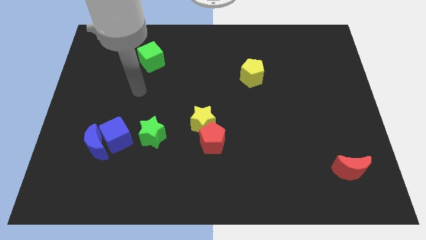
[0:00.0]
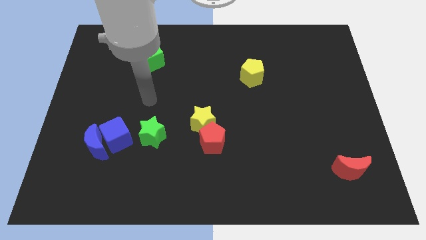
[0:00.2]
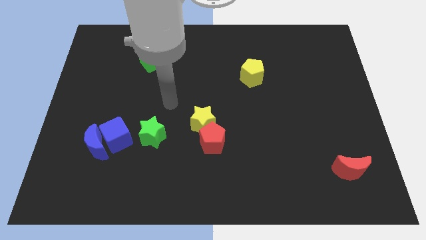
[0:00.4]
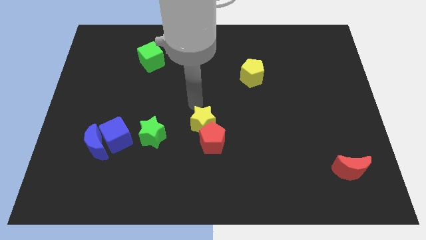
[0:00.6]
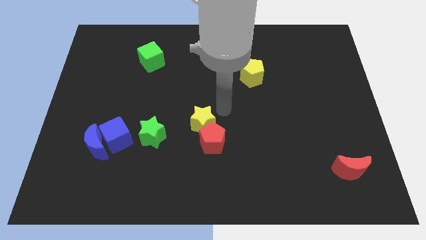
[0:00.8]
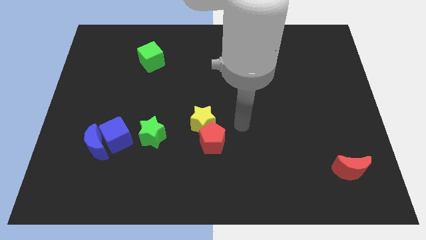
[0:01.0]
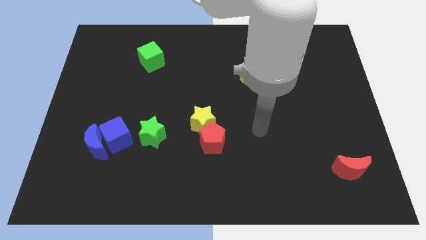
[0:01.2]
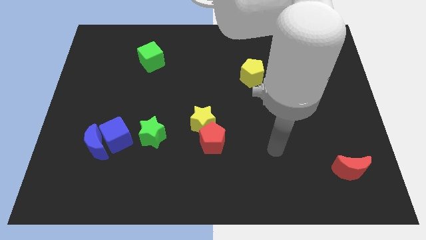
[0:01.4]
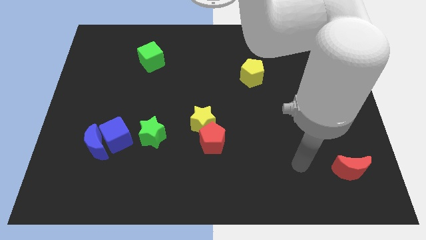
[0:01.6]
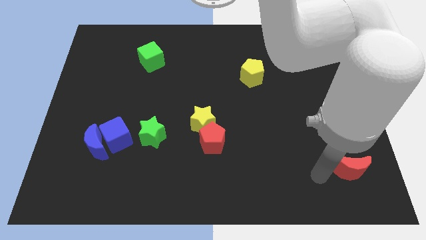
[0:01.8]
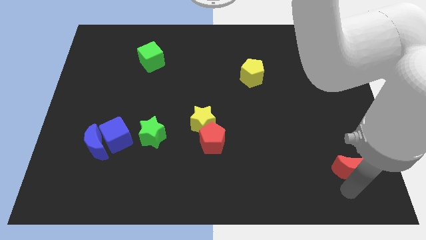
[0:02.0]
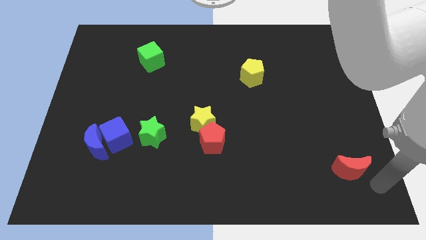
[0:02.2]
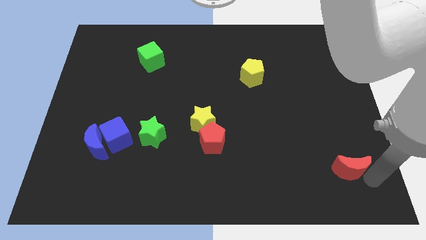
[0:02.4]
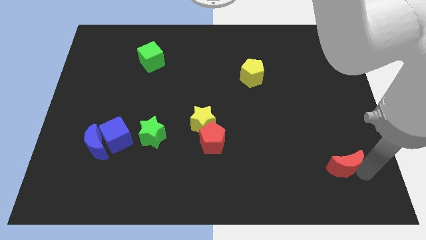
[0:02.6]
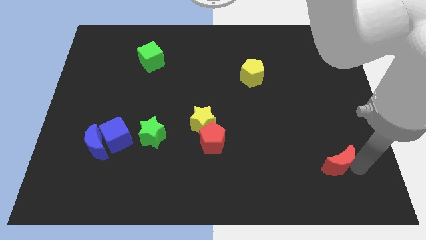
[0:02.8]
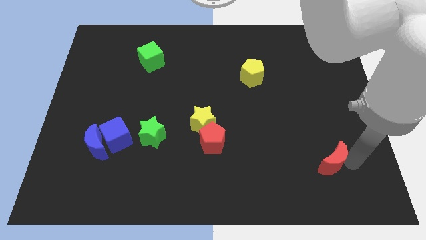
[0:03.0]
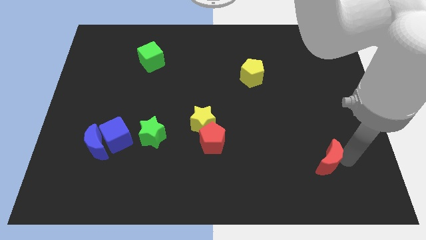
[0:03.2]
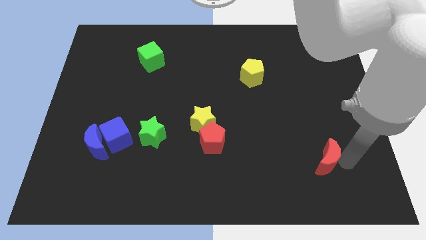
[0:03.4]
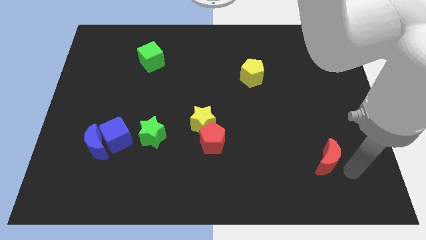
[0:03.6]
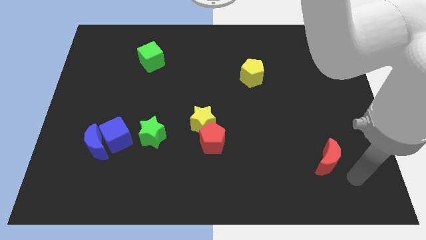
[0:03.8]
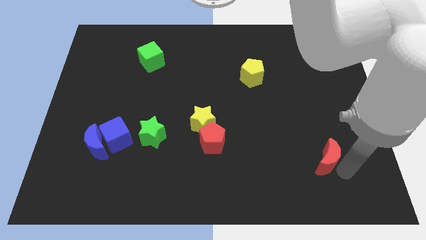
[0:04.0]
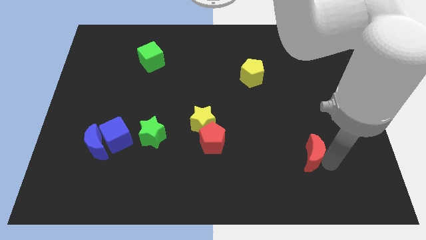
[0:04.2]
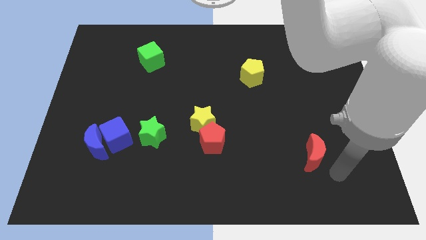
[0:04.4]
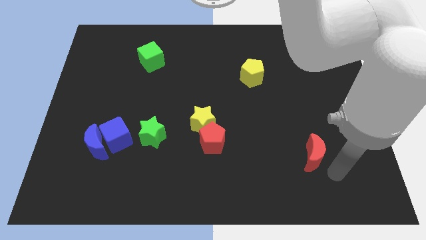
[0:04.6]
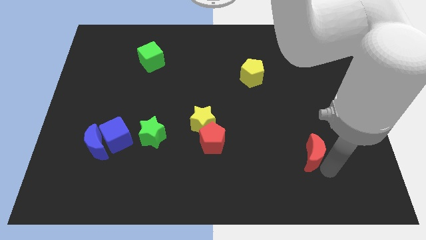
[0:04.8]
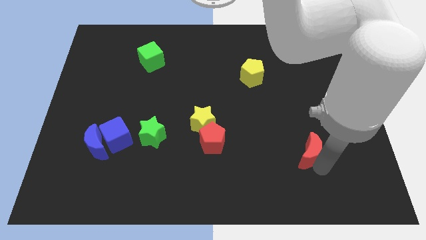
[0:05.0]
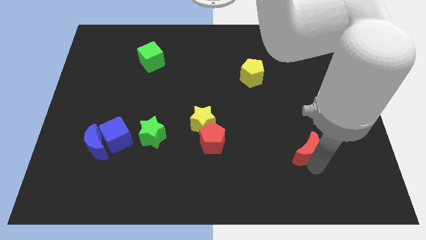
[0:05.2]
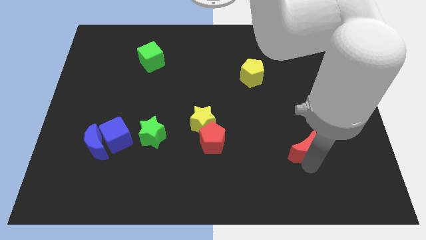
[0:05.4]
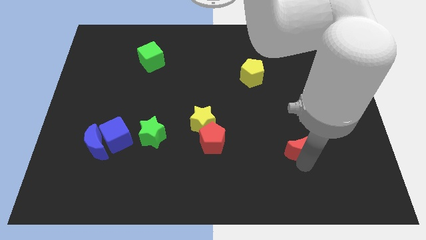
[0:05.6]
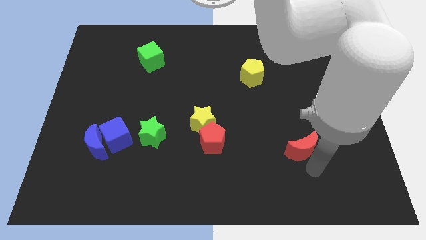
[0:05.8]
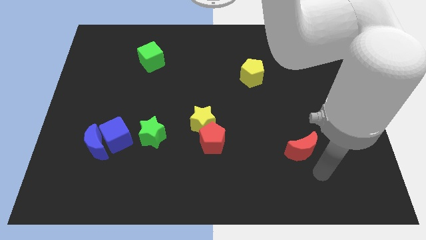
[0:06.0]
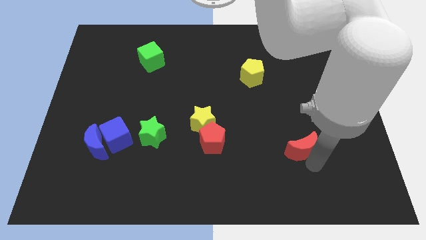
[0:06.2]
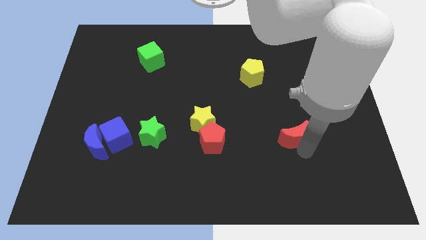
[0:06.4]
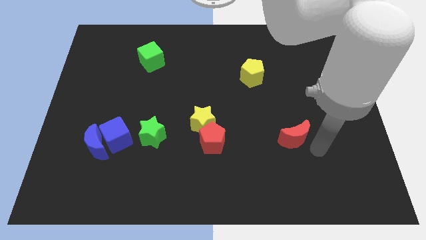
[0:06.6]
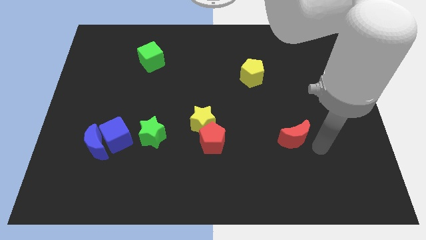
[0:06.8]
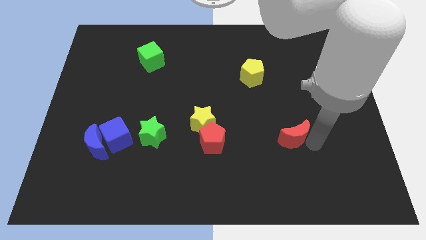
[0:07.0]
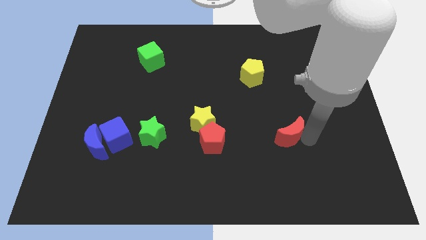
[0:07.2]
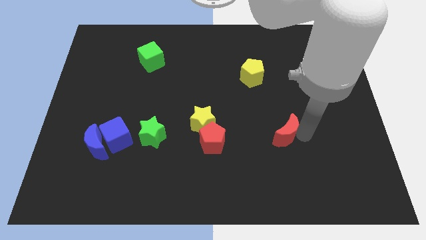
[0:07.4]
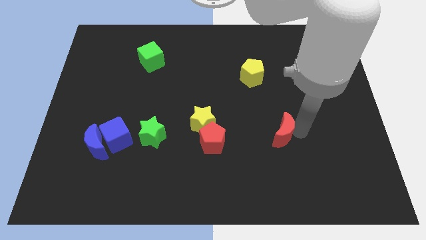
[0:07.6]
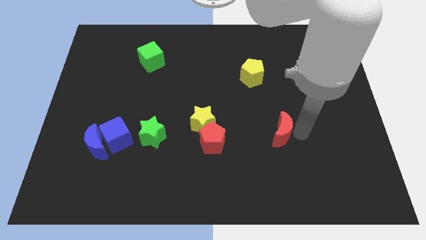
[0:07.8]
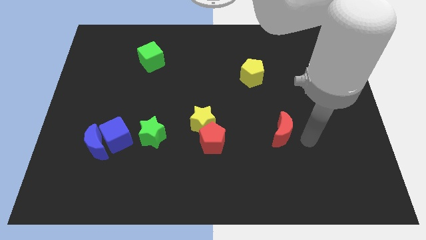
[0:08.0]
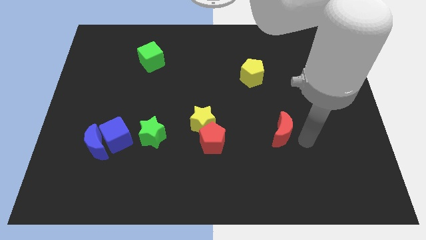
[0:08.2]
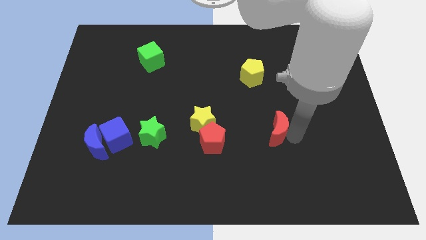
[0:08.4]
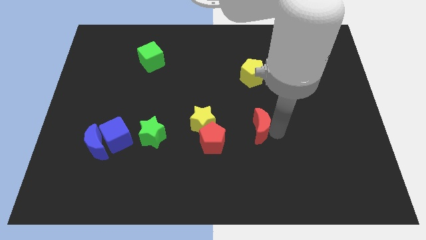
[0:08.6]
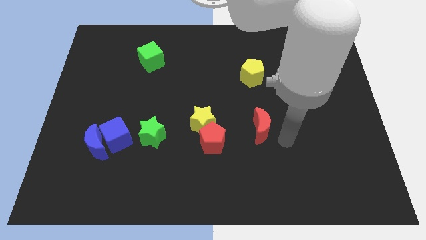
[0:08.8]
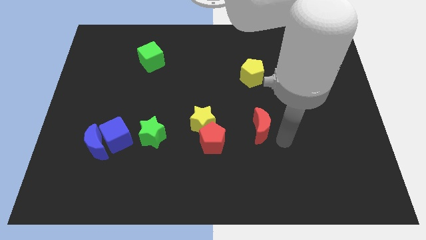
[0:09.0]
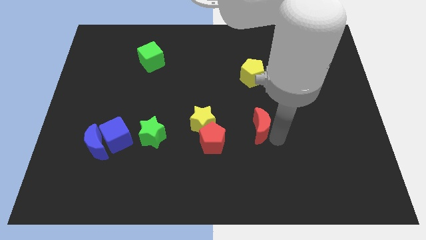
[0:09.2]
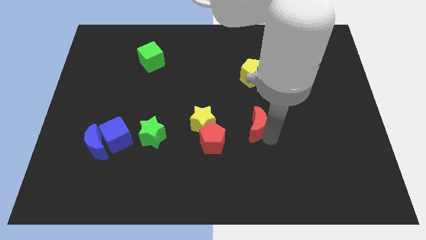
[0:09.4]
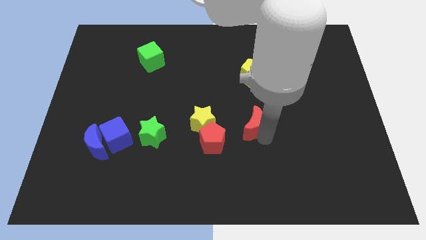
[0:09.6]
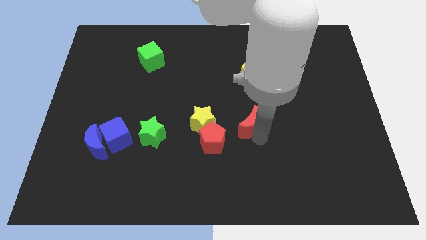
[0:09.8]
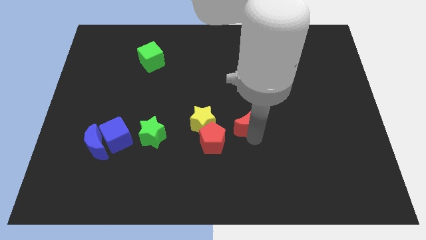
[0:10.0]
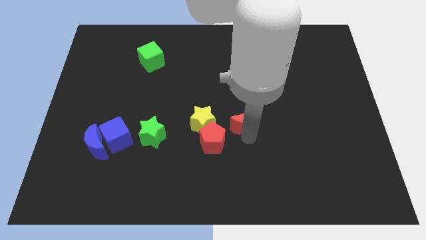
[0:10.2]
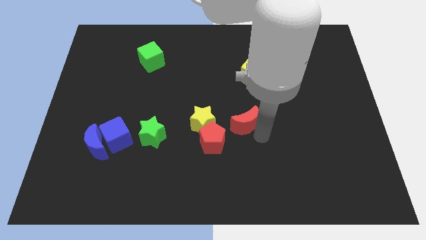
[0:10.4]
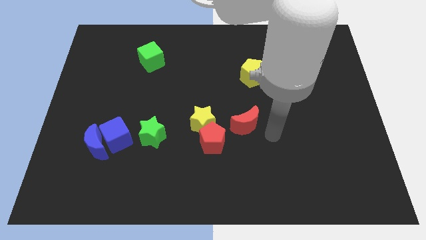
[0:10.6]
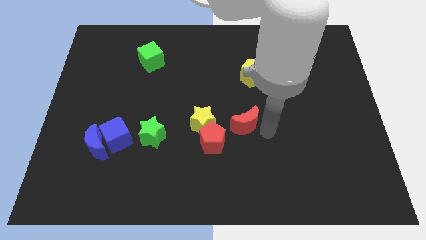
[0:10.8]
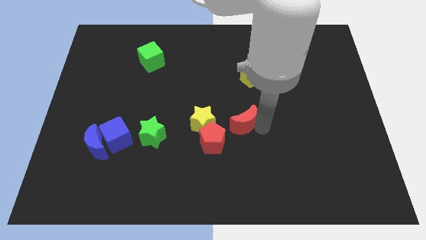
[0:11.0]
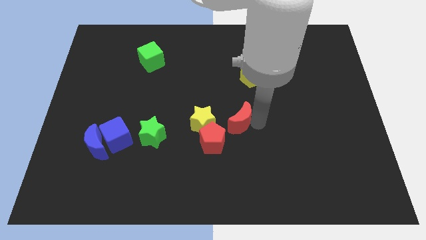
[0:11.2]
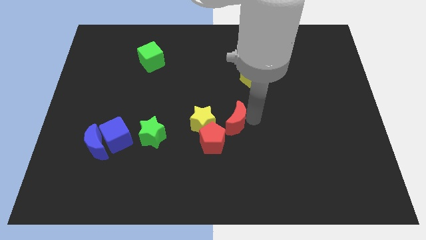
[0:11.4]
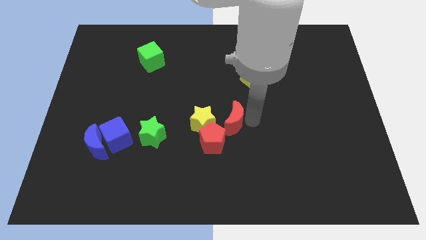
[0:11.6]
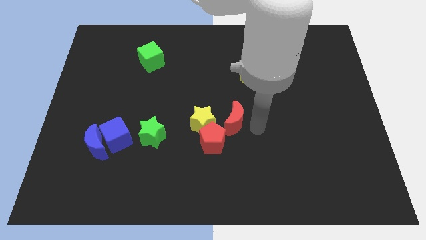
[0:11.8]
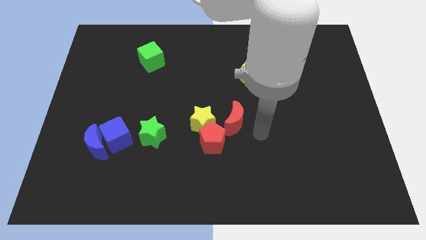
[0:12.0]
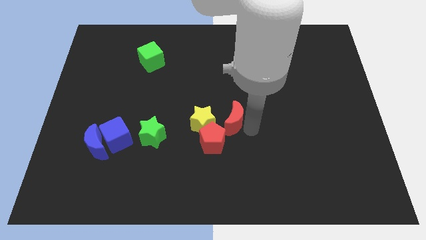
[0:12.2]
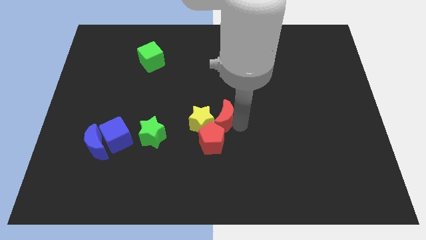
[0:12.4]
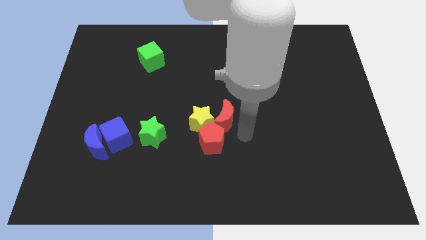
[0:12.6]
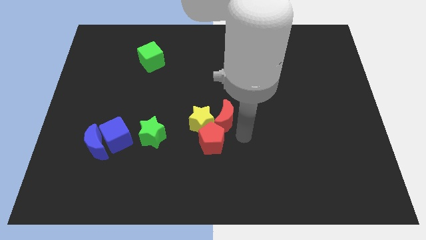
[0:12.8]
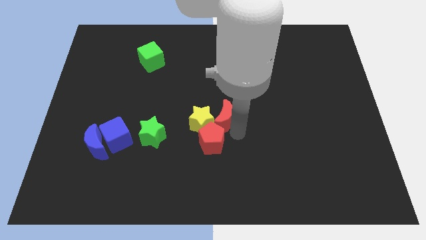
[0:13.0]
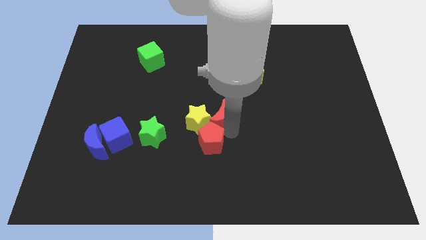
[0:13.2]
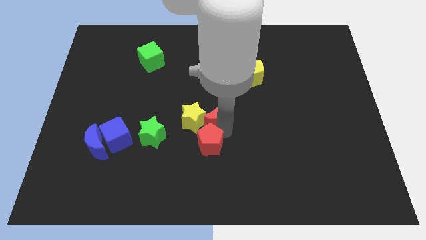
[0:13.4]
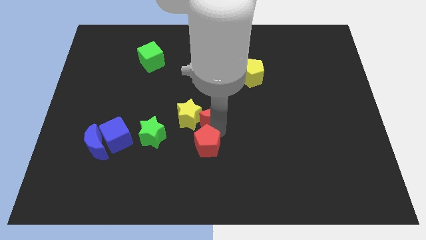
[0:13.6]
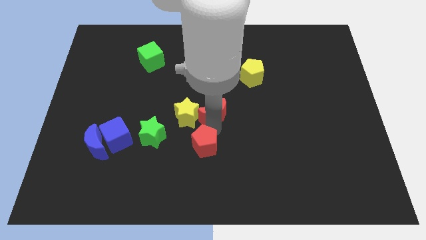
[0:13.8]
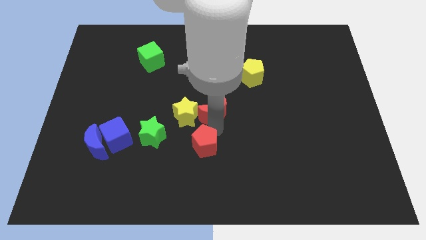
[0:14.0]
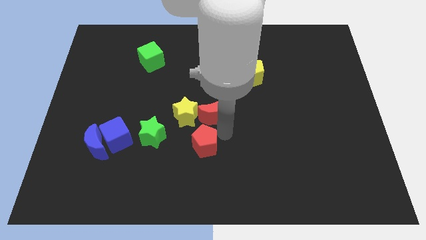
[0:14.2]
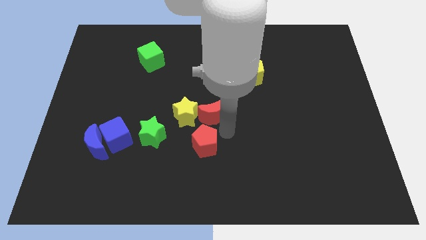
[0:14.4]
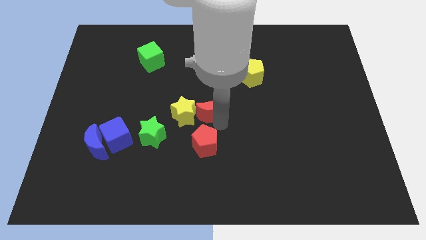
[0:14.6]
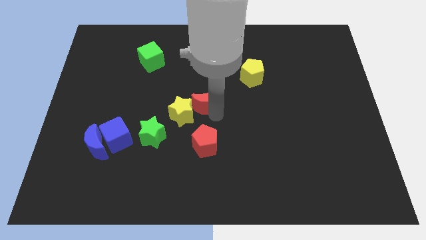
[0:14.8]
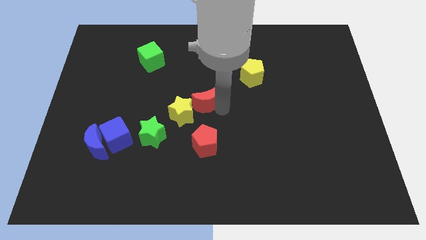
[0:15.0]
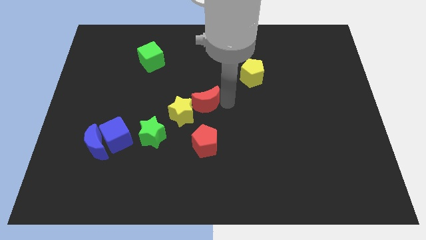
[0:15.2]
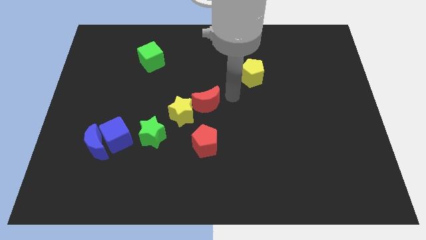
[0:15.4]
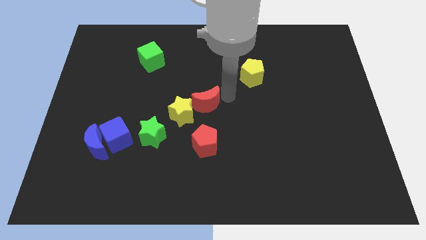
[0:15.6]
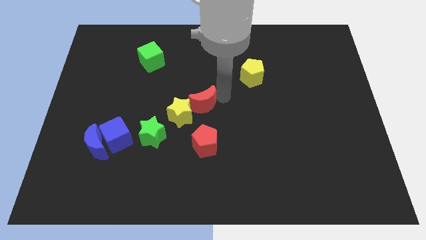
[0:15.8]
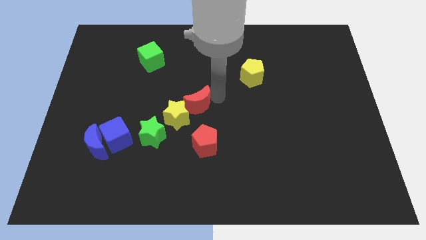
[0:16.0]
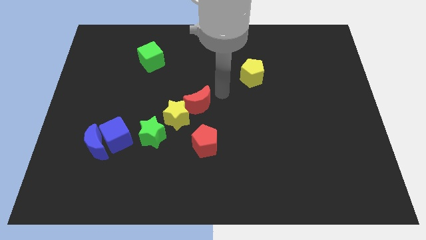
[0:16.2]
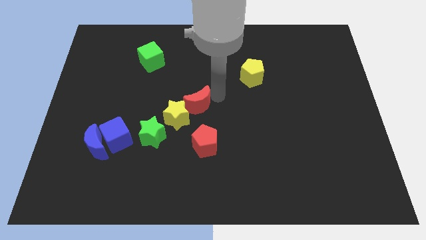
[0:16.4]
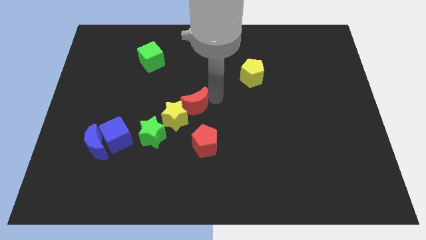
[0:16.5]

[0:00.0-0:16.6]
slide the red moon to the top right side of the green star
